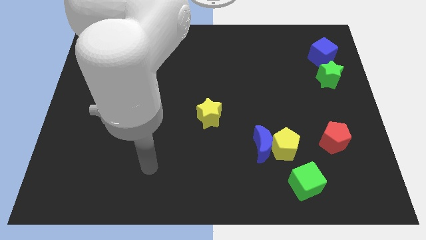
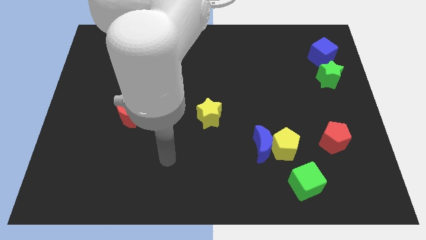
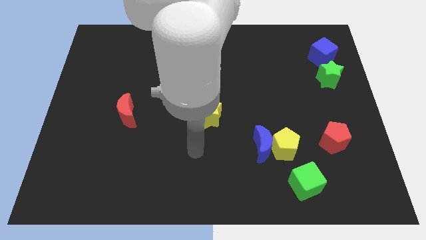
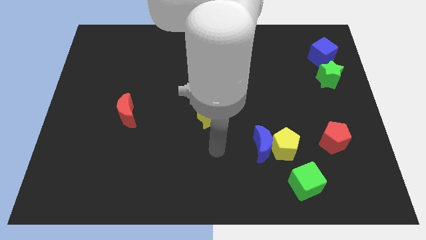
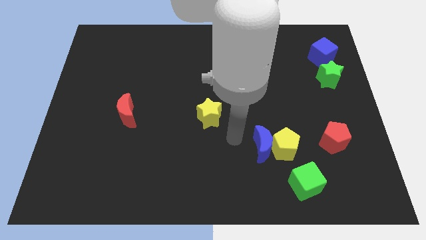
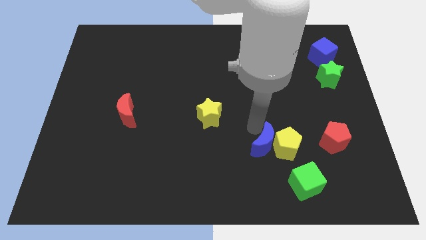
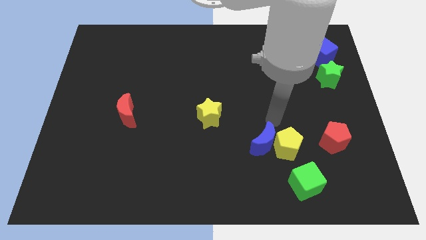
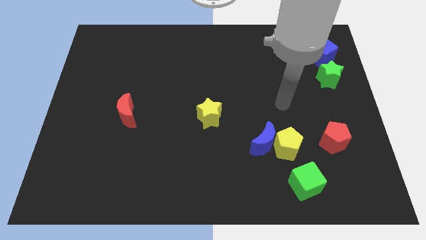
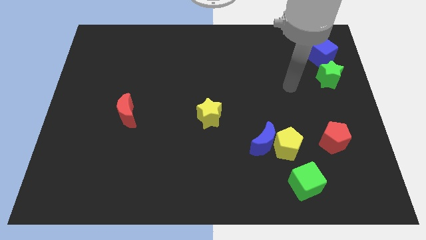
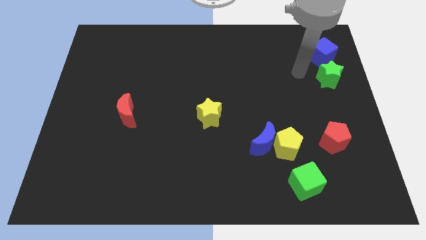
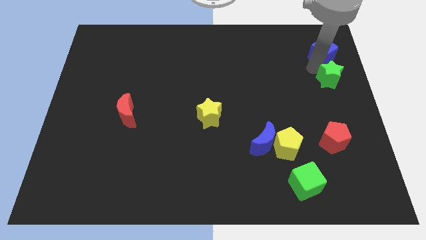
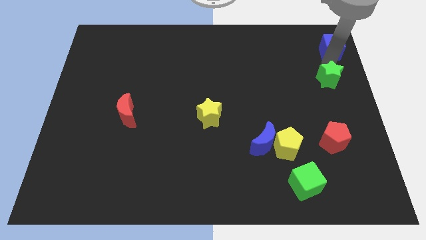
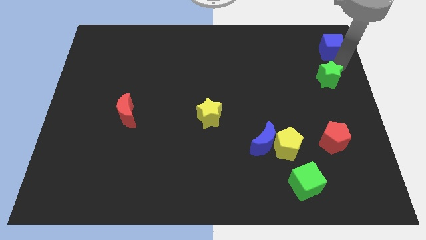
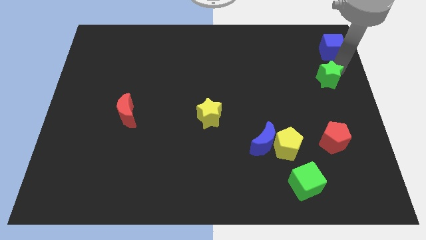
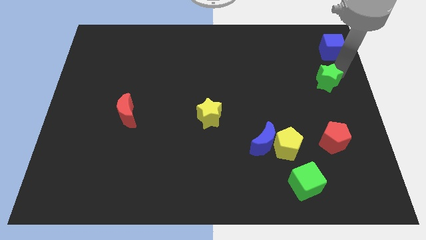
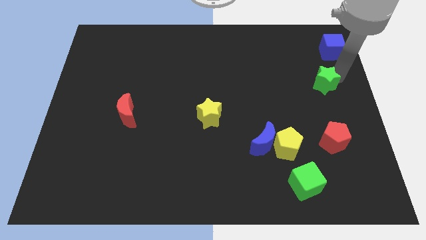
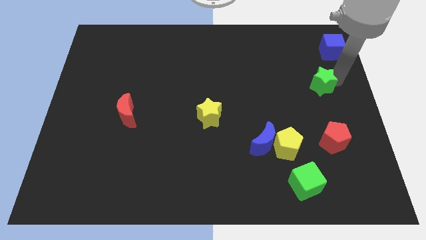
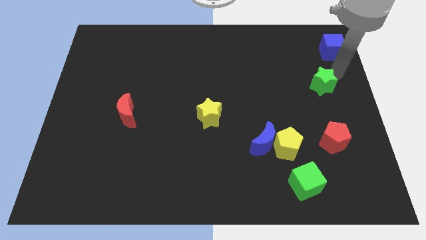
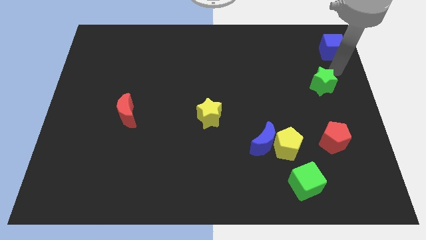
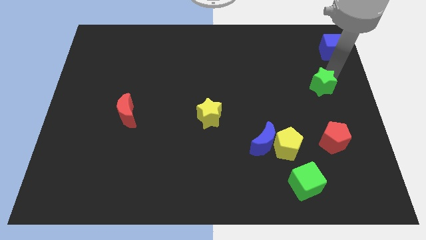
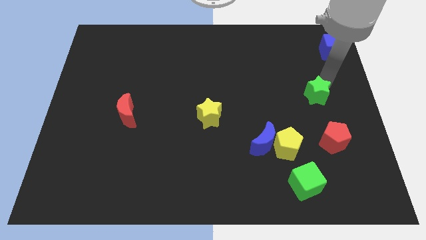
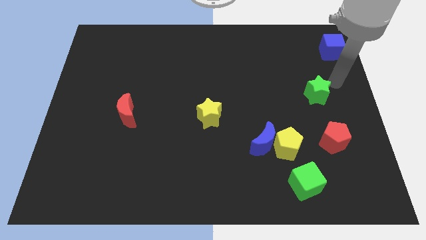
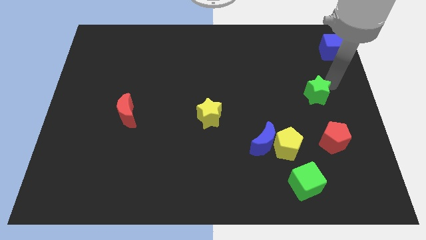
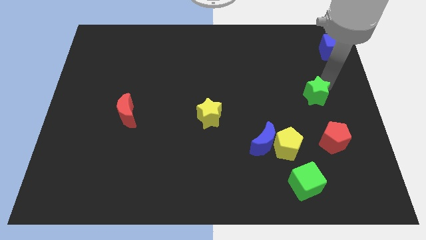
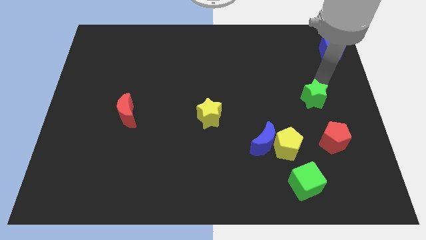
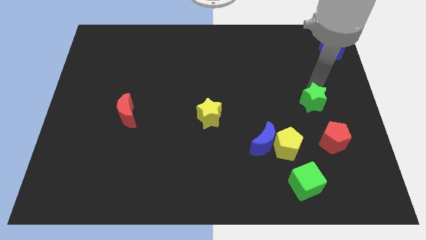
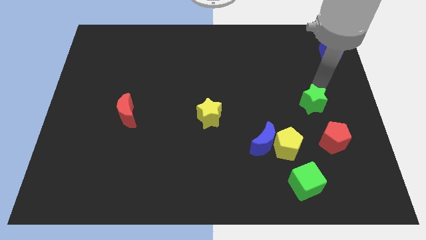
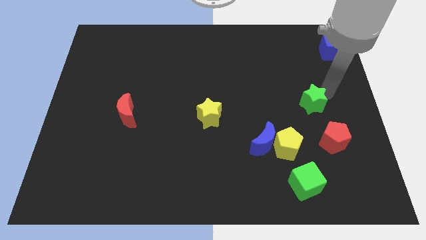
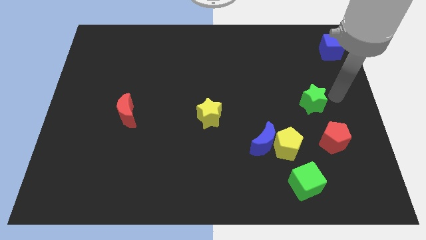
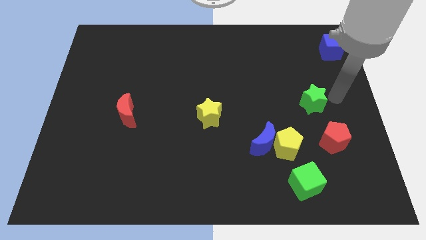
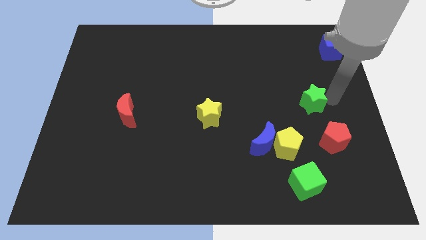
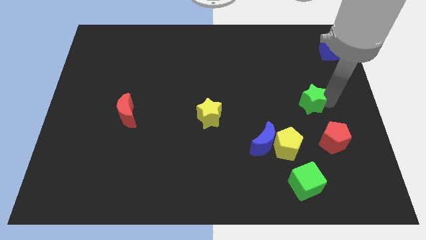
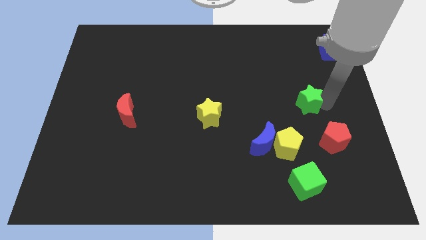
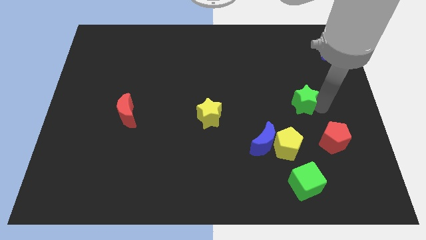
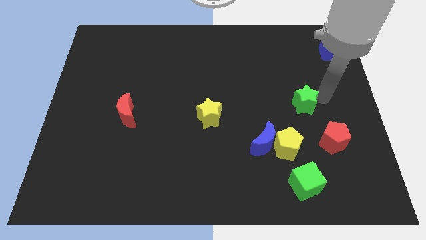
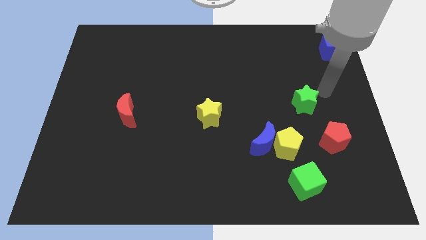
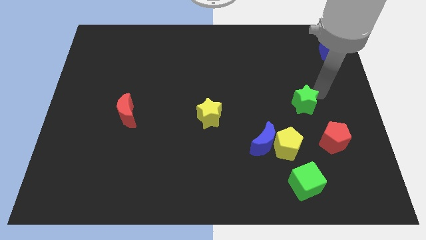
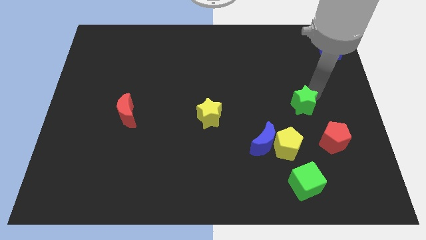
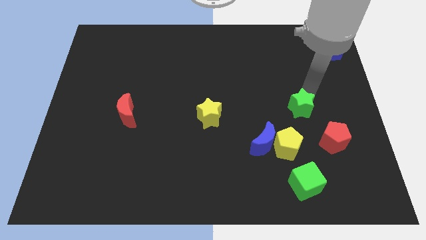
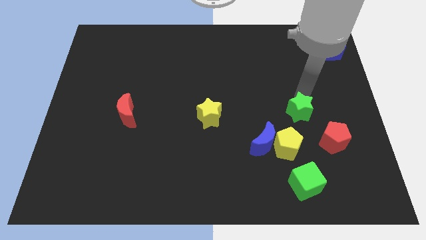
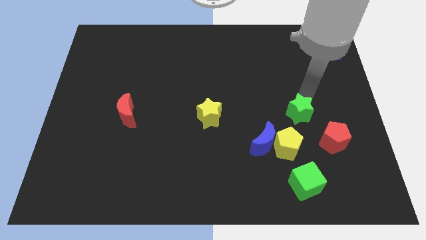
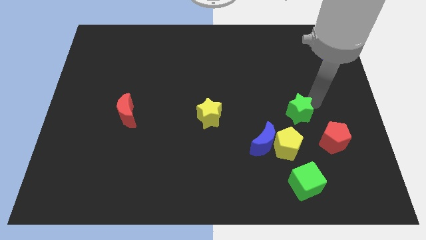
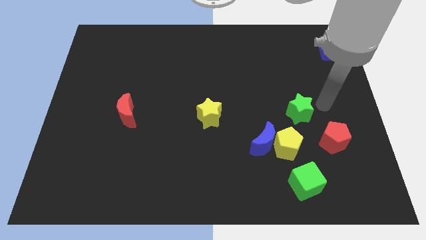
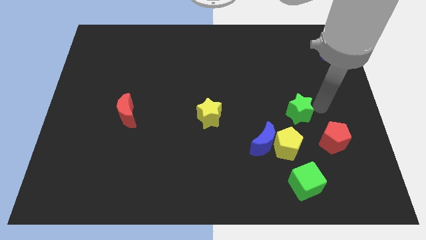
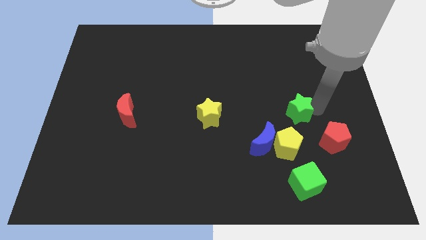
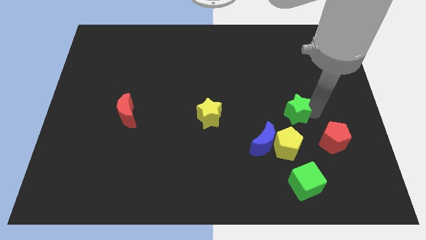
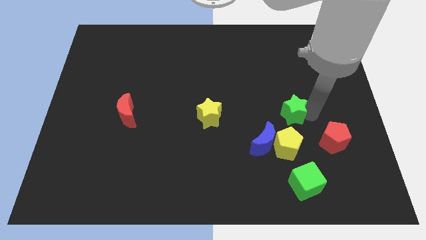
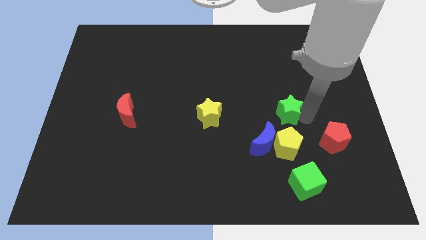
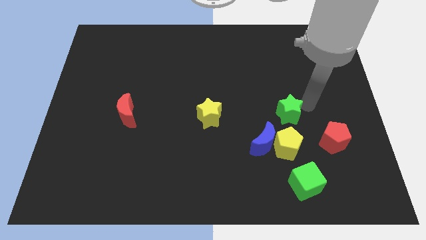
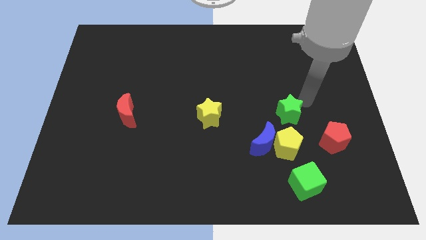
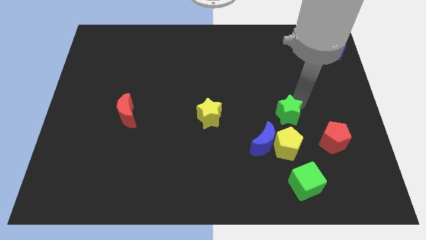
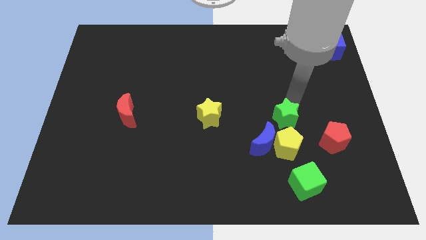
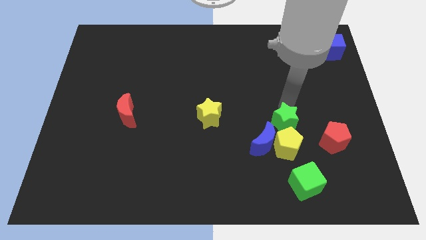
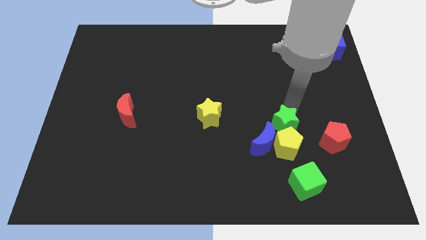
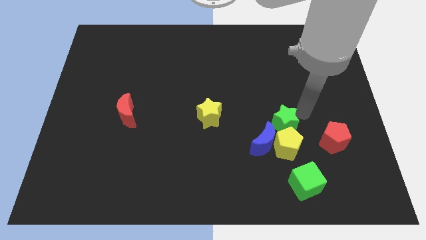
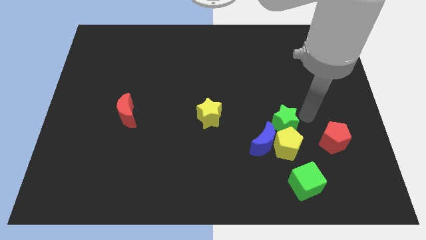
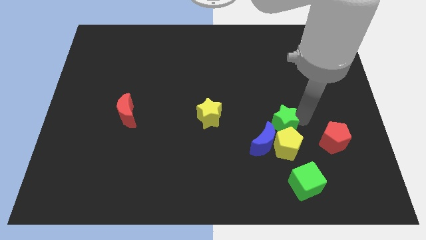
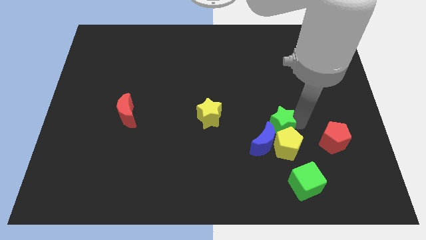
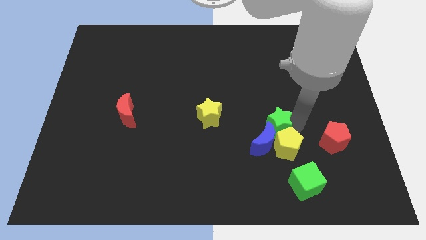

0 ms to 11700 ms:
put the green star towards the blue moon

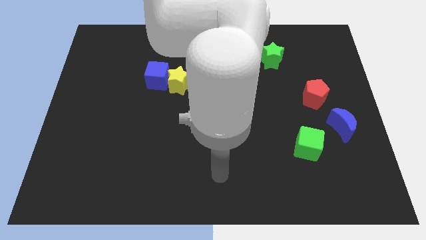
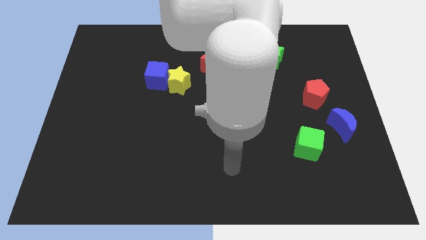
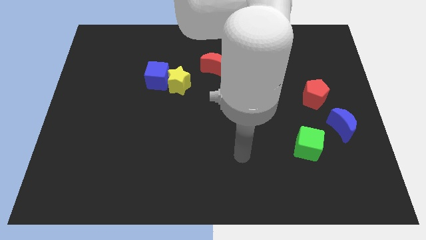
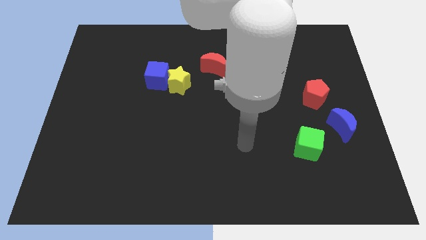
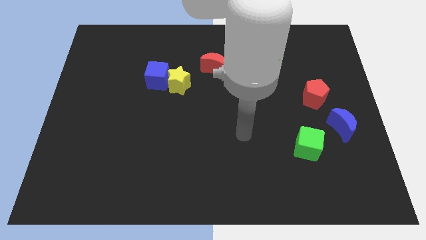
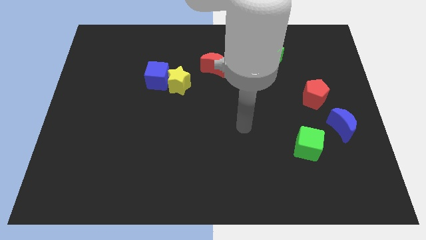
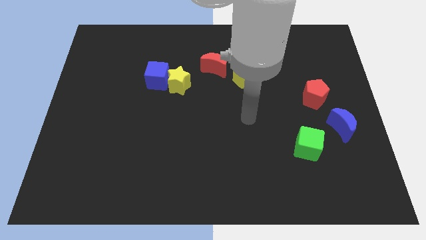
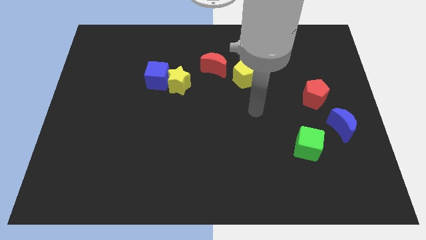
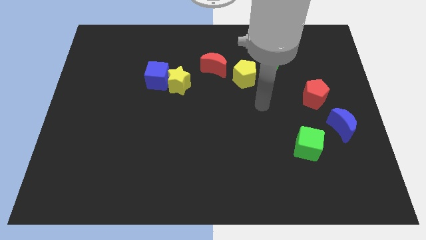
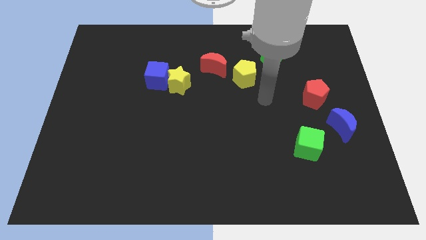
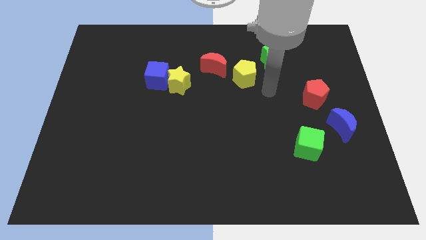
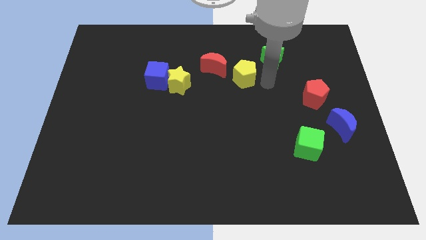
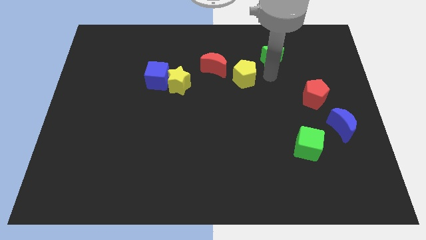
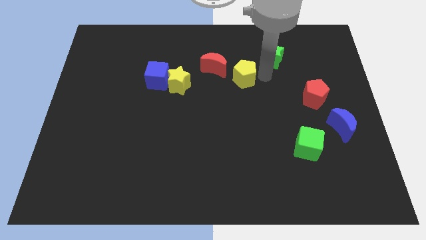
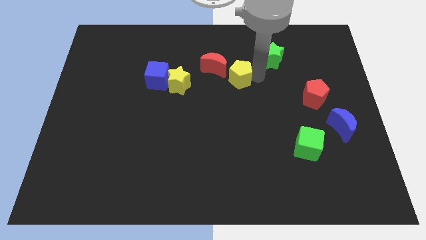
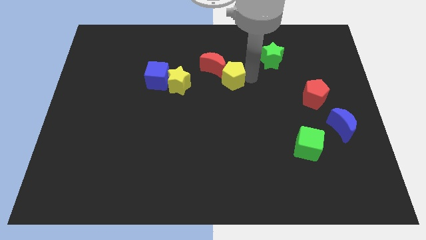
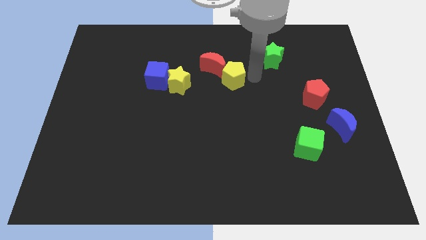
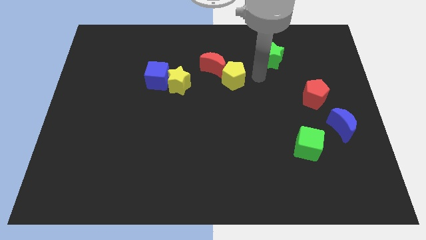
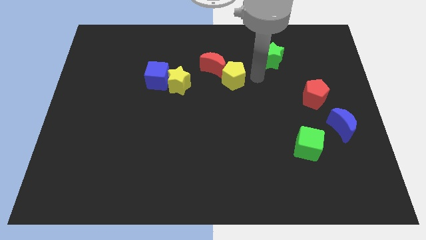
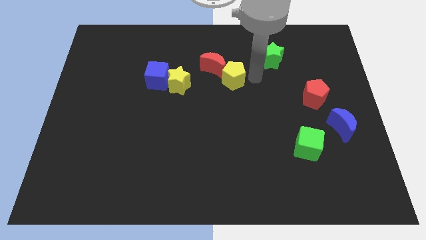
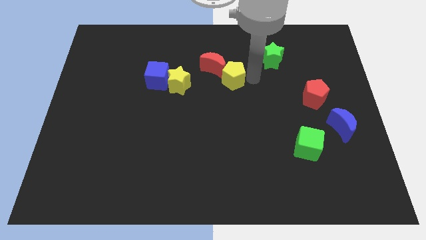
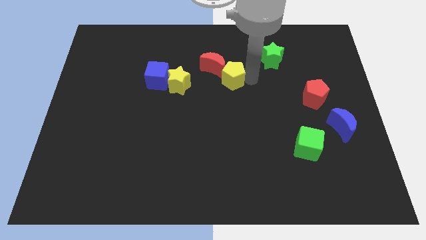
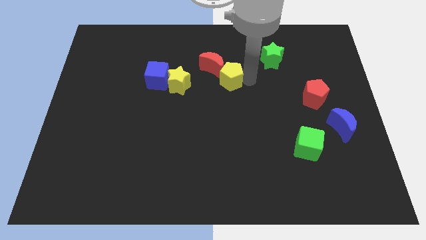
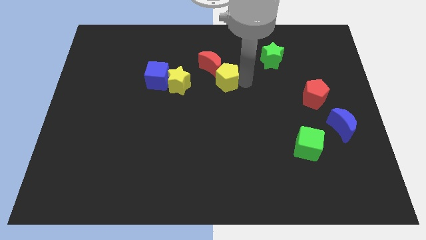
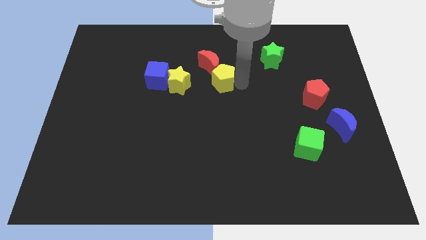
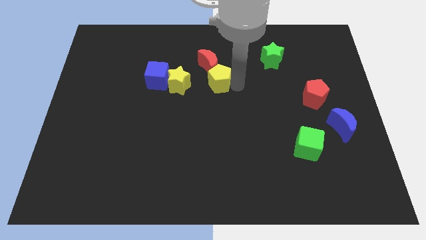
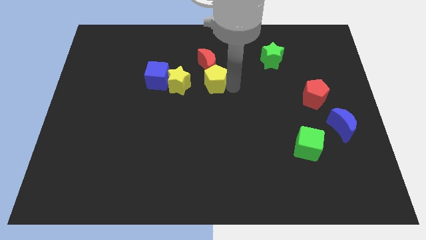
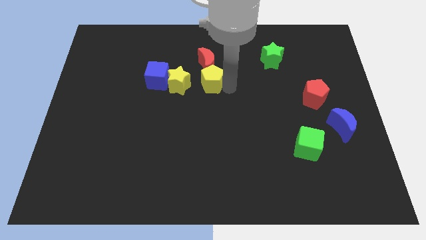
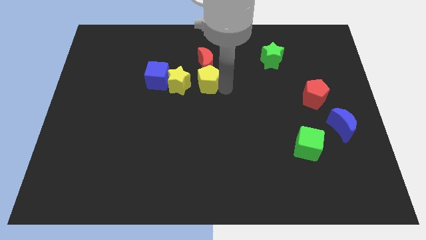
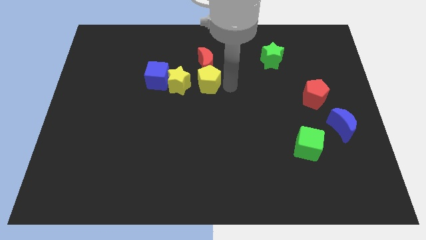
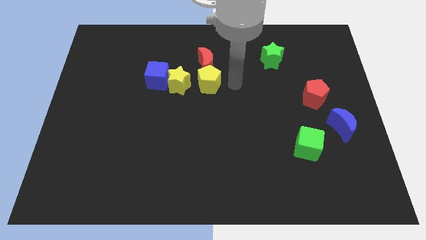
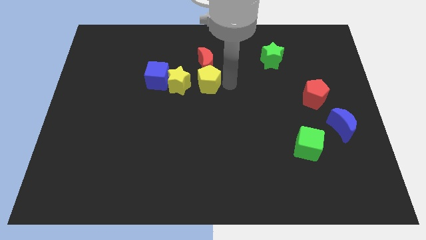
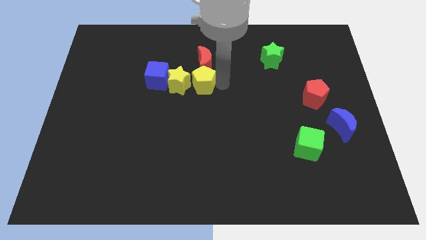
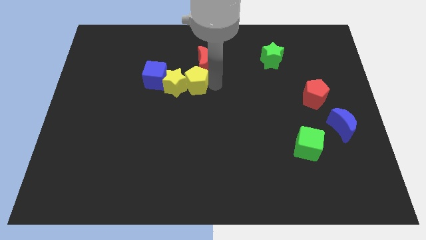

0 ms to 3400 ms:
put the yellow pentagon close to the yellow star
